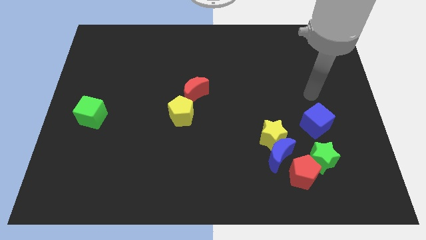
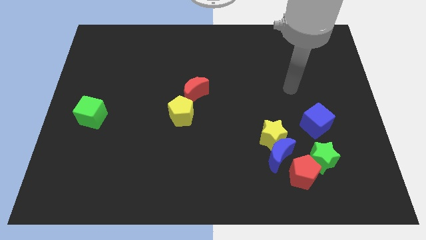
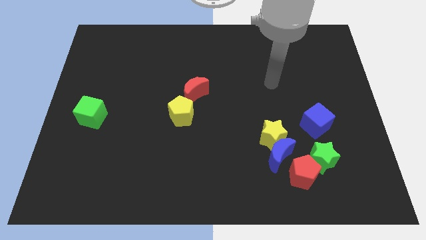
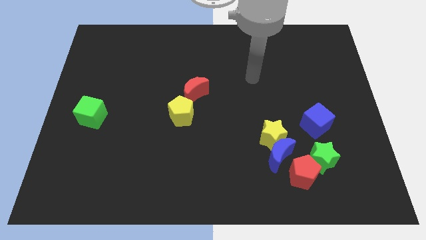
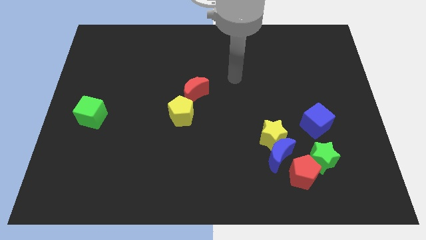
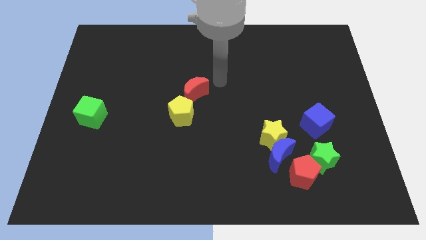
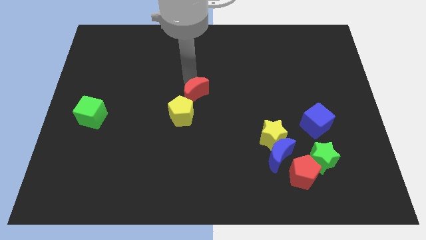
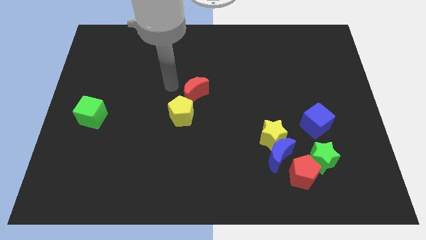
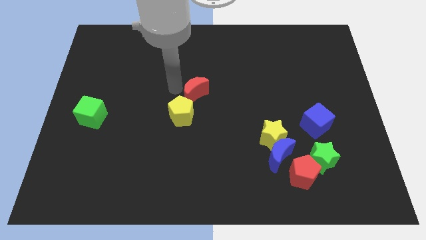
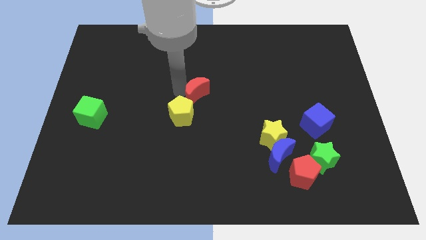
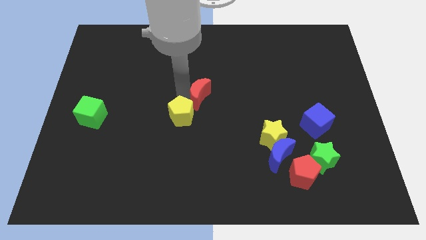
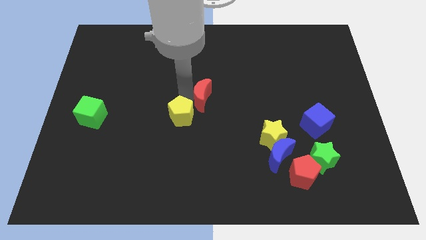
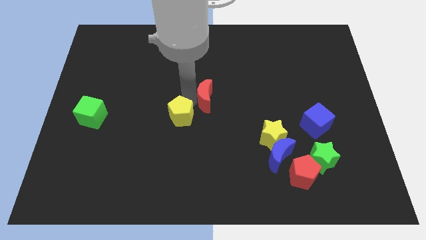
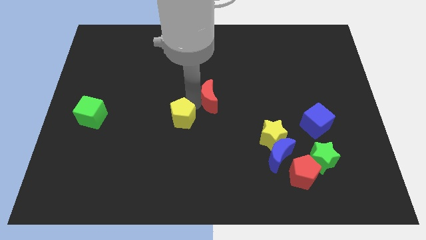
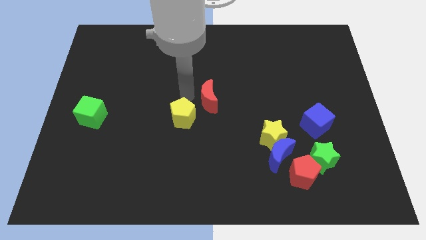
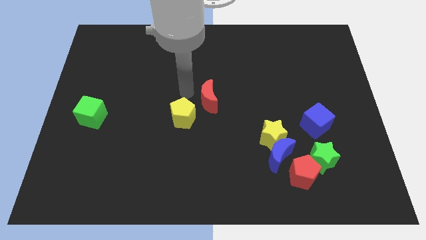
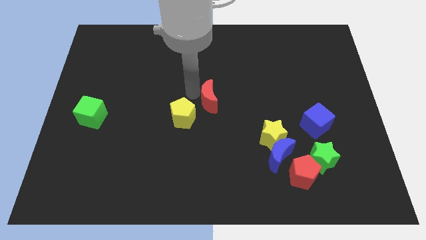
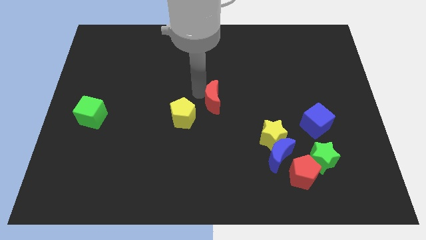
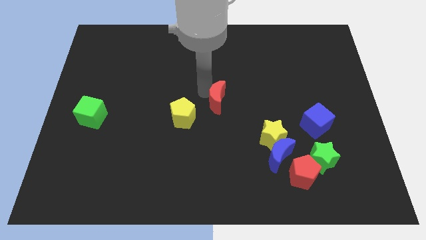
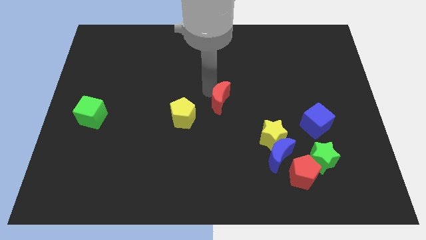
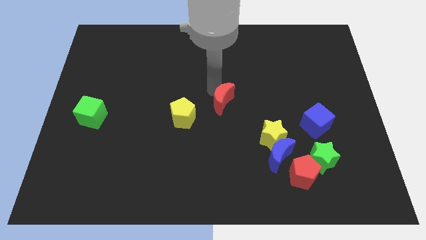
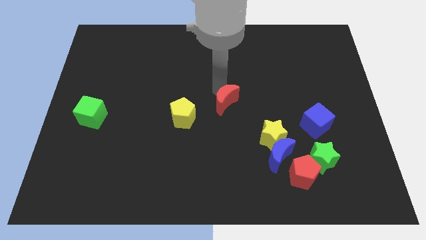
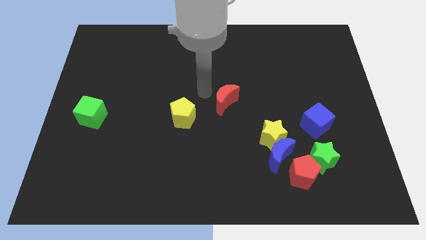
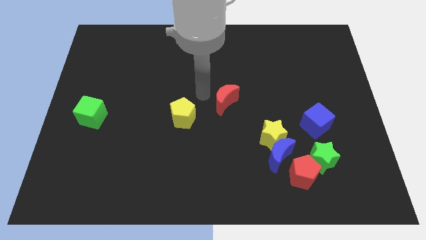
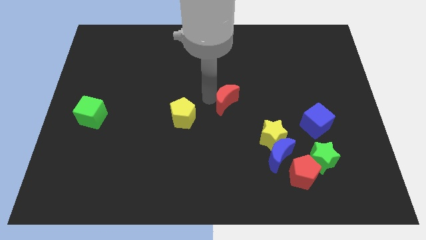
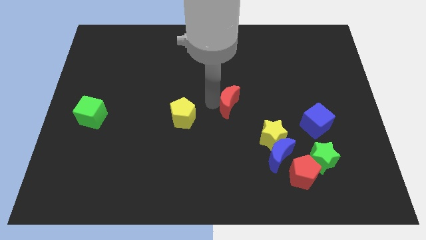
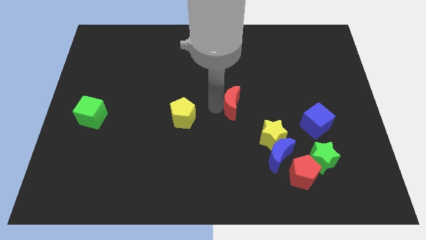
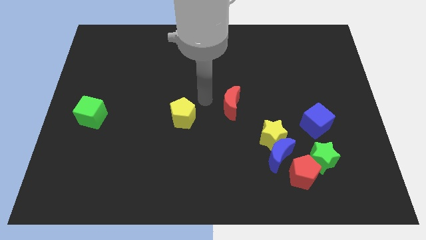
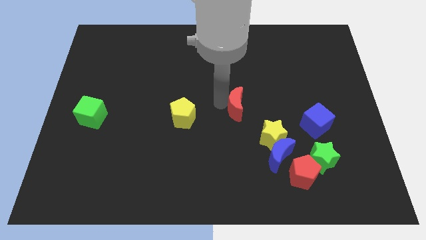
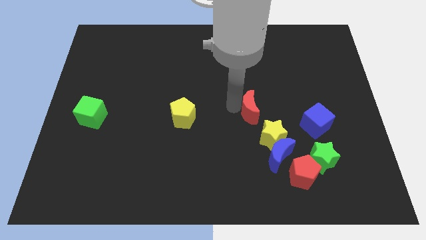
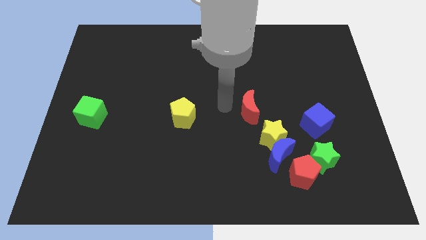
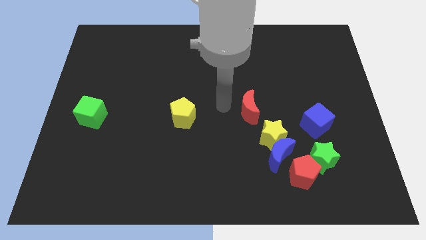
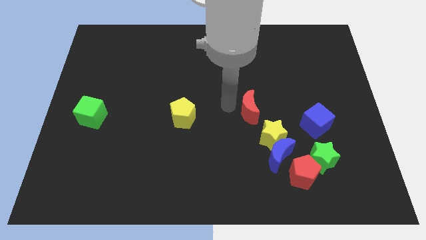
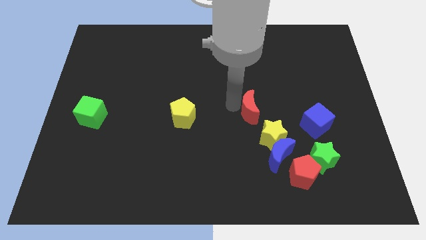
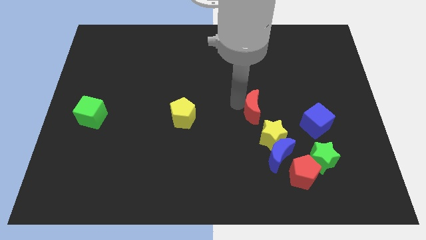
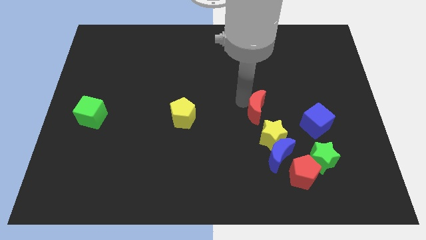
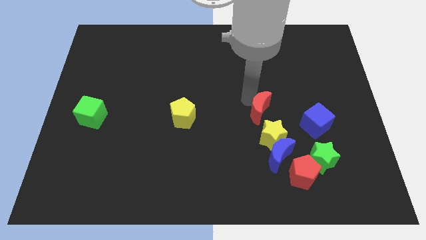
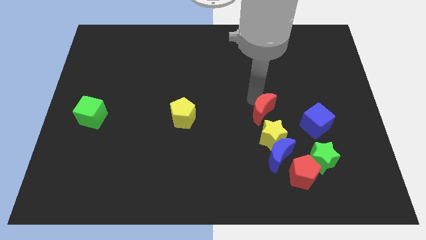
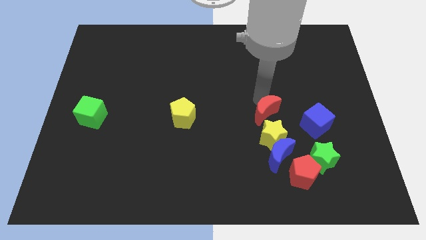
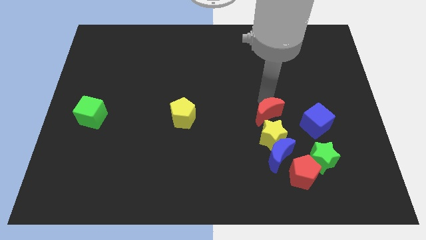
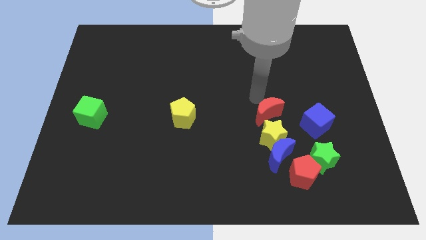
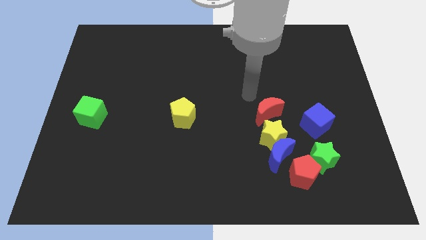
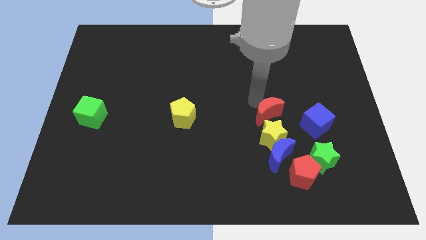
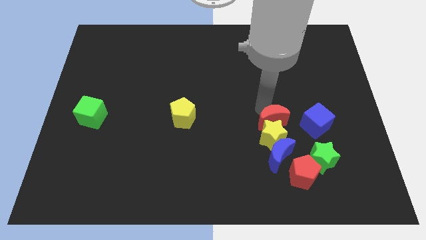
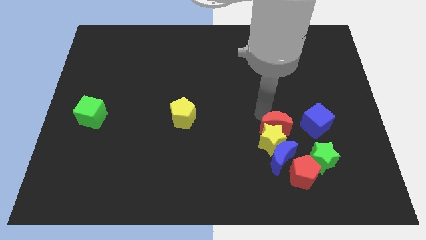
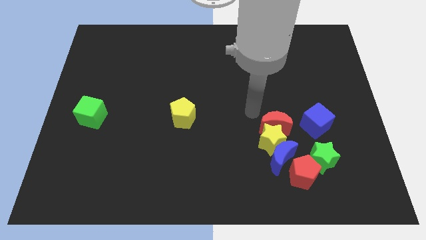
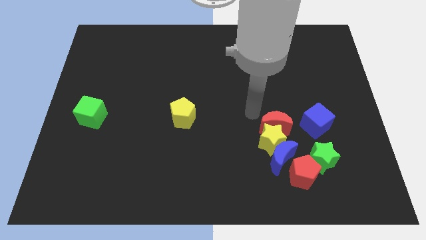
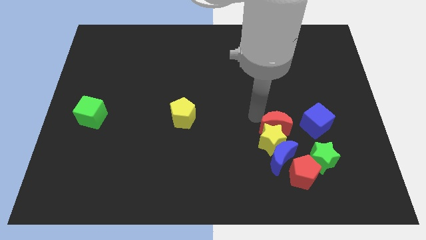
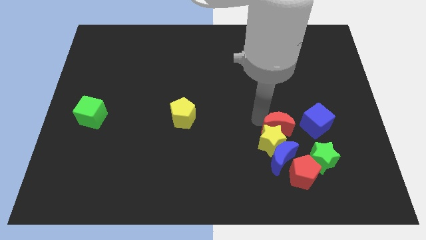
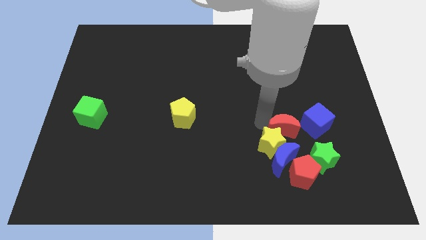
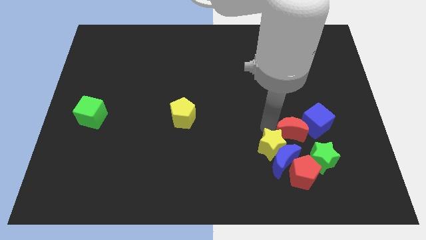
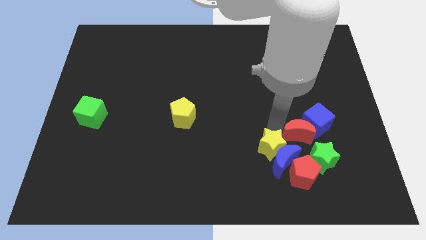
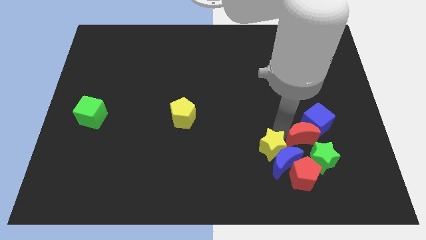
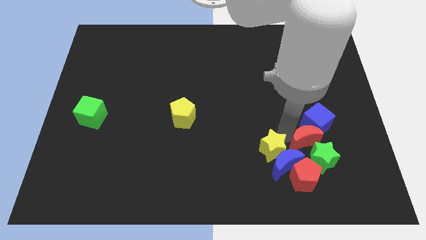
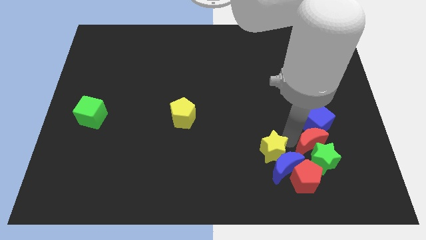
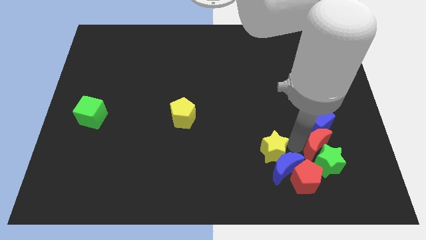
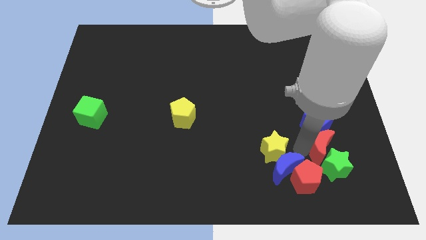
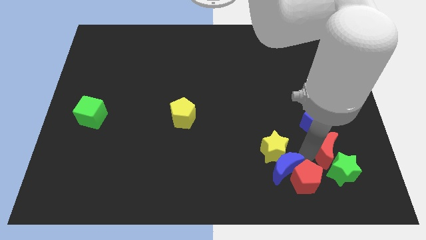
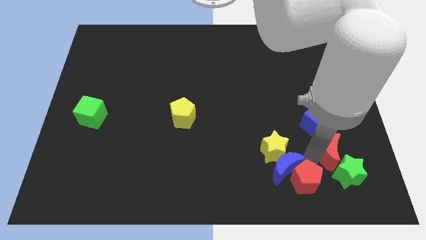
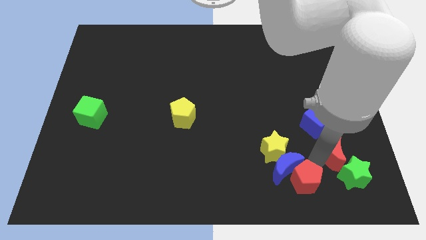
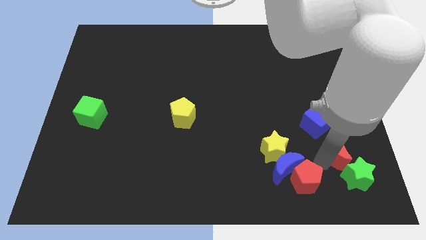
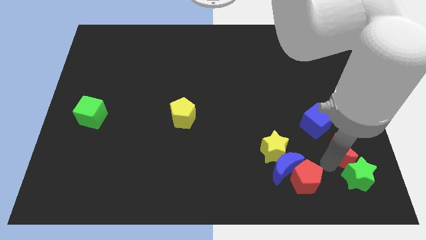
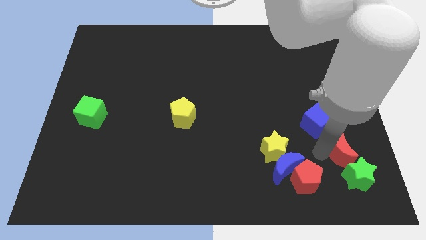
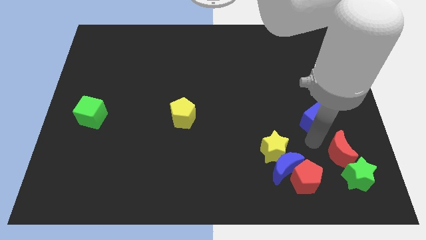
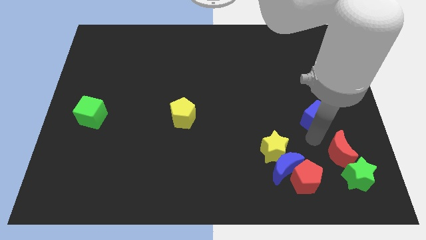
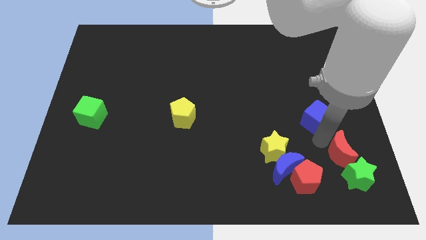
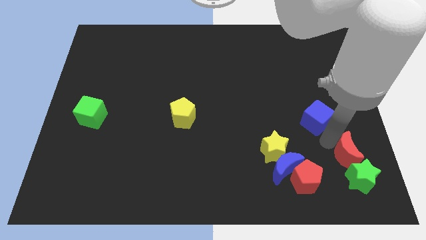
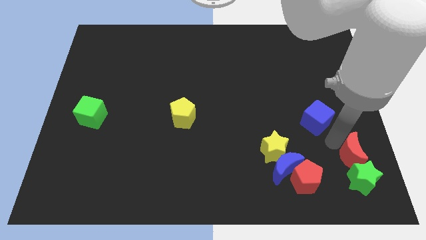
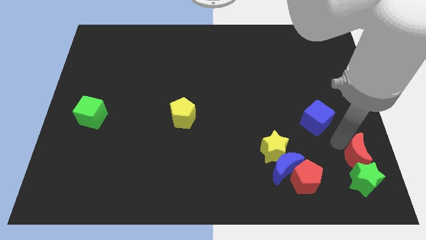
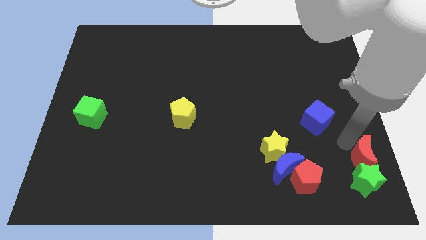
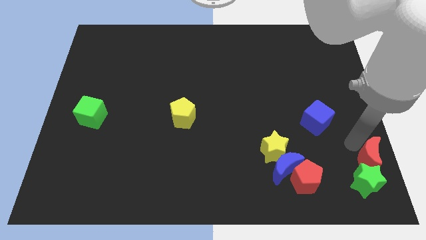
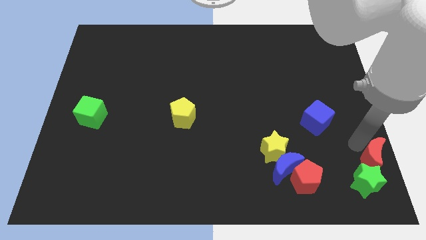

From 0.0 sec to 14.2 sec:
put the red moon to the bottom right of the board
